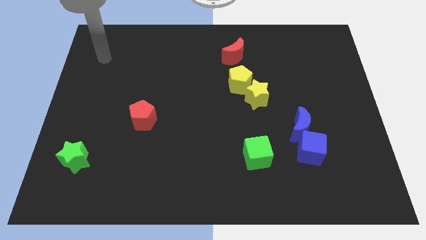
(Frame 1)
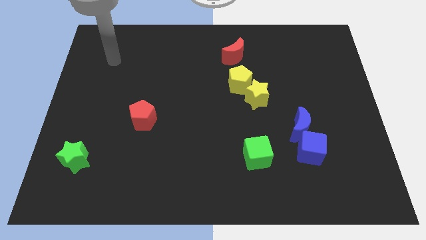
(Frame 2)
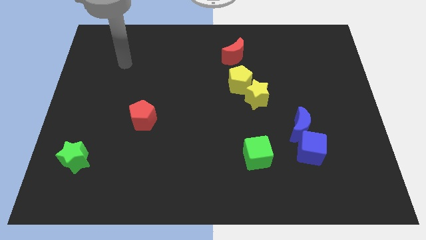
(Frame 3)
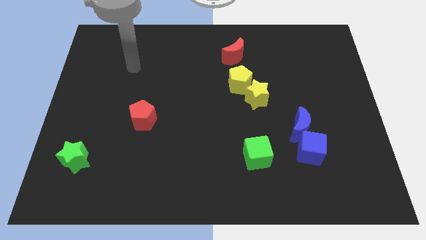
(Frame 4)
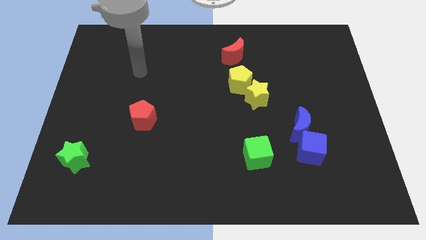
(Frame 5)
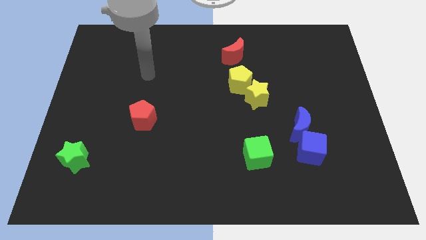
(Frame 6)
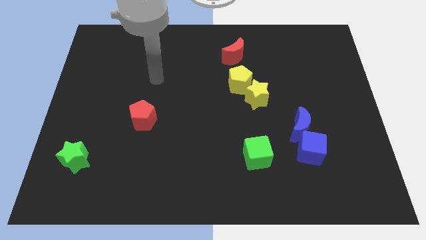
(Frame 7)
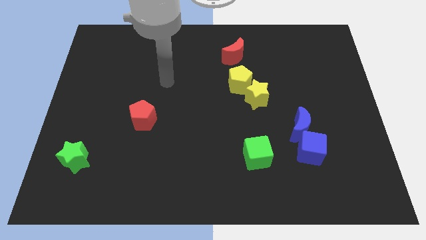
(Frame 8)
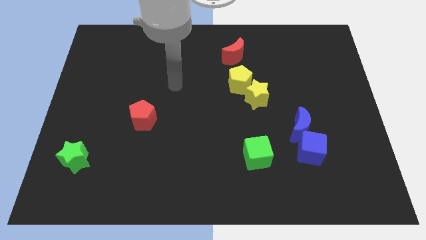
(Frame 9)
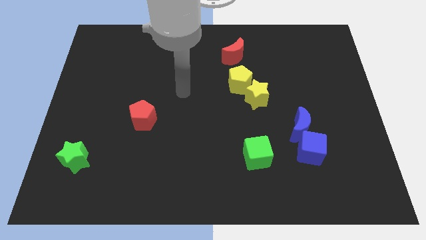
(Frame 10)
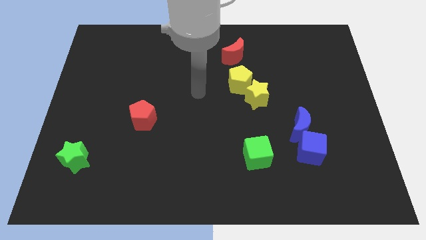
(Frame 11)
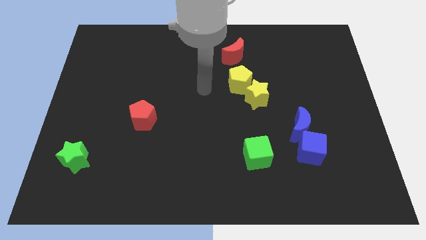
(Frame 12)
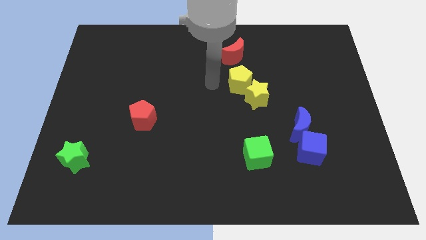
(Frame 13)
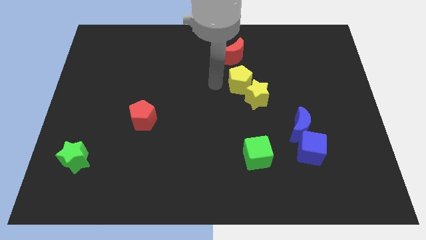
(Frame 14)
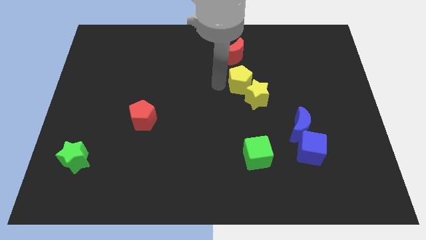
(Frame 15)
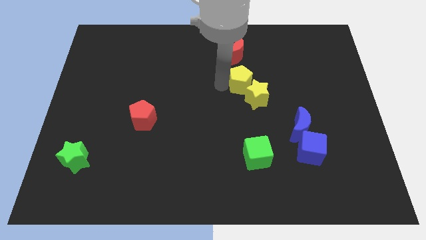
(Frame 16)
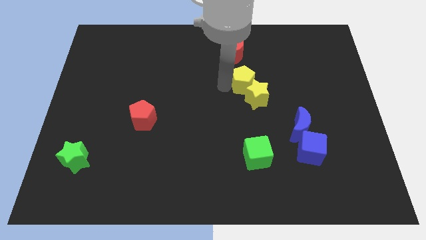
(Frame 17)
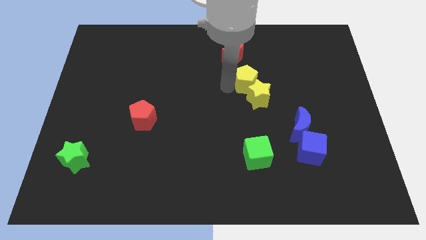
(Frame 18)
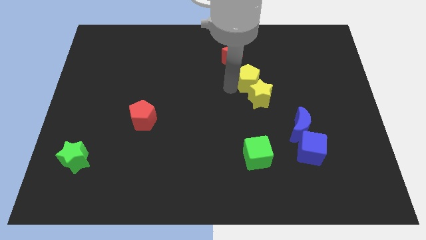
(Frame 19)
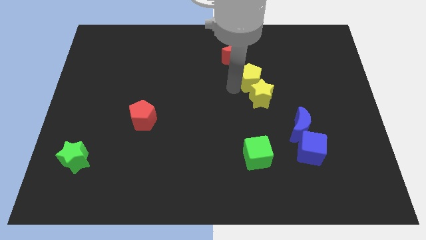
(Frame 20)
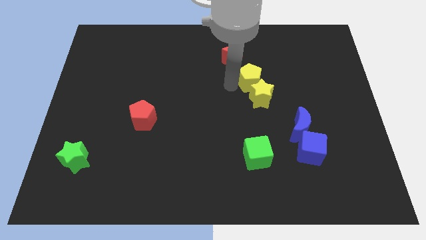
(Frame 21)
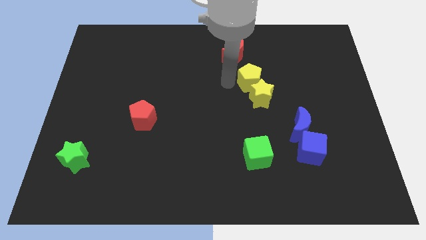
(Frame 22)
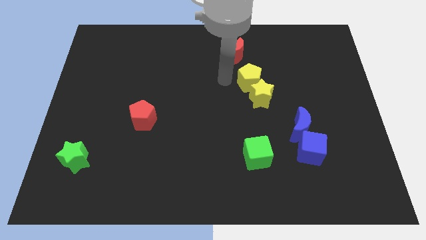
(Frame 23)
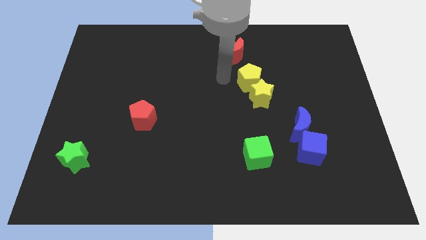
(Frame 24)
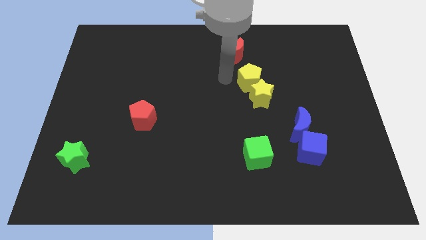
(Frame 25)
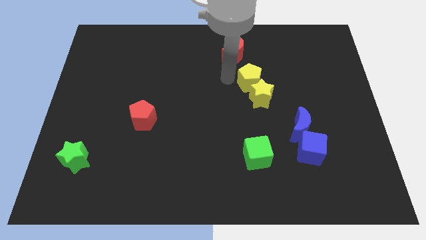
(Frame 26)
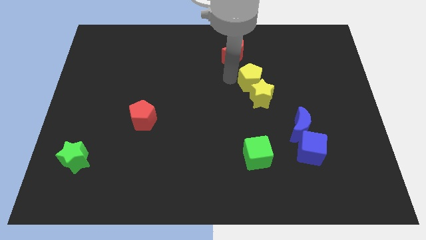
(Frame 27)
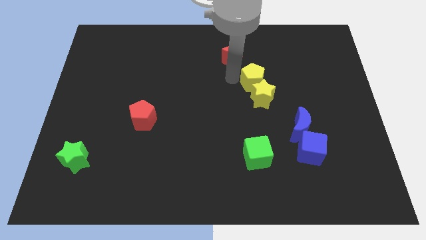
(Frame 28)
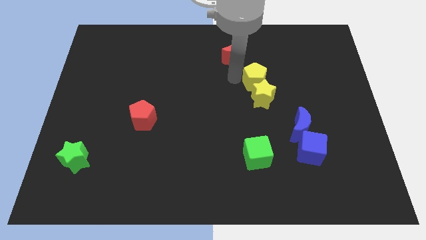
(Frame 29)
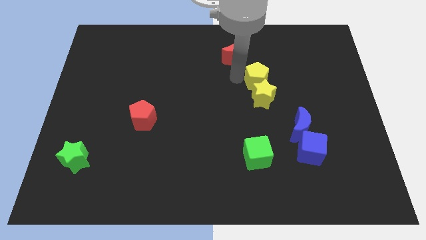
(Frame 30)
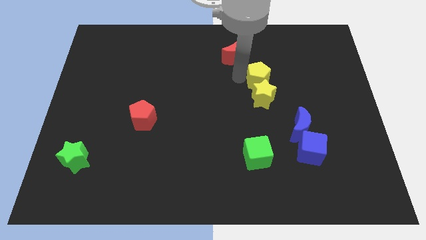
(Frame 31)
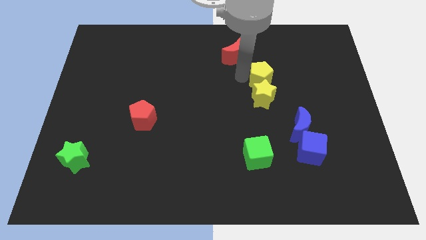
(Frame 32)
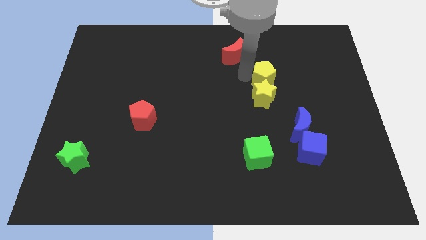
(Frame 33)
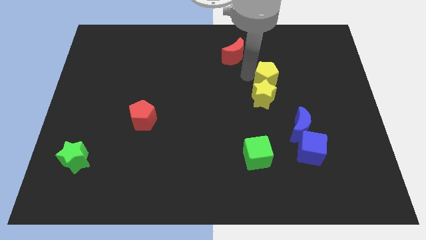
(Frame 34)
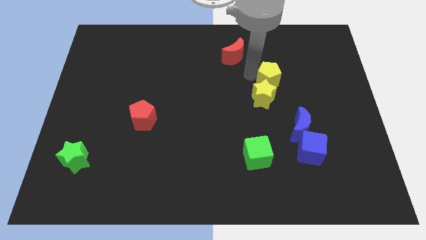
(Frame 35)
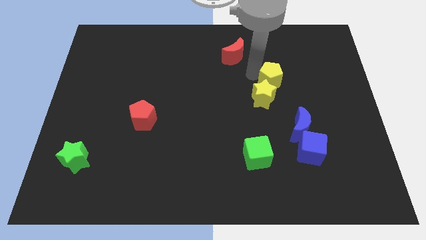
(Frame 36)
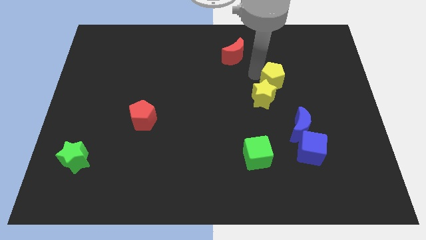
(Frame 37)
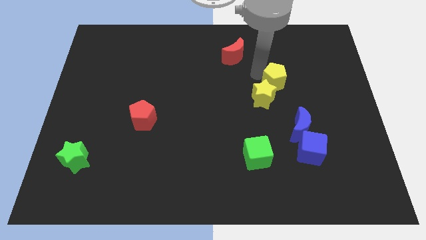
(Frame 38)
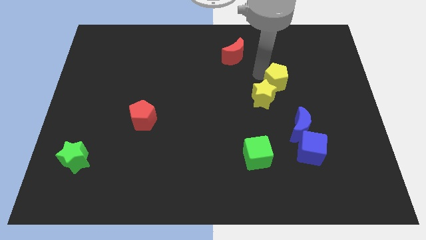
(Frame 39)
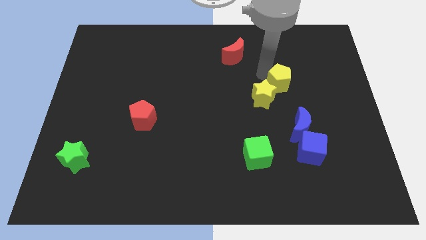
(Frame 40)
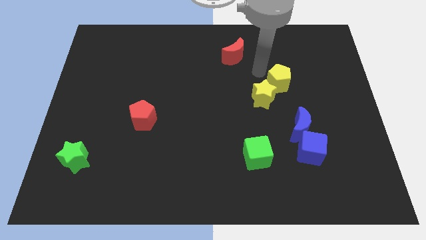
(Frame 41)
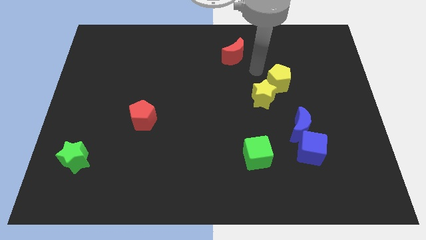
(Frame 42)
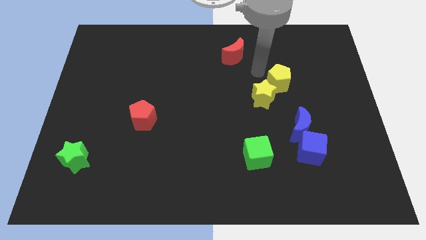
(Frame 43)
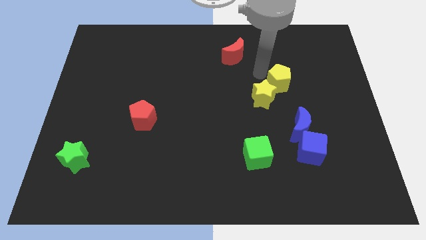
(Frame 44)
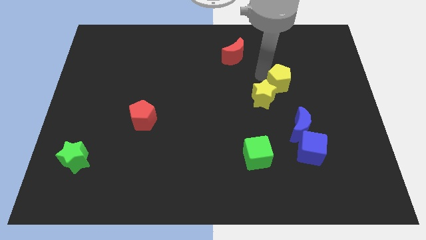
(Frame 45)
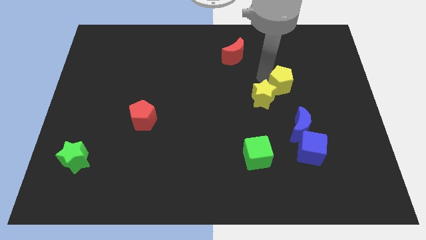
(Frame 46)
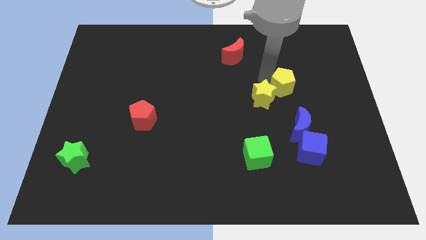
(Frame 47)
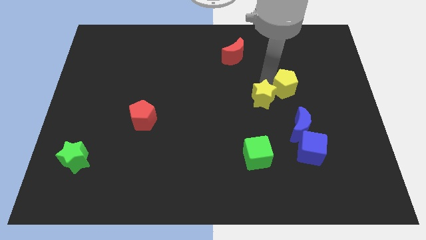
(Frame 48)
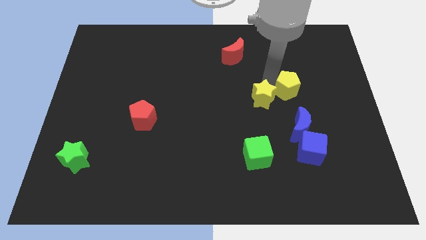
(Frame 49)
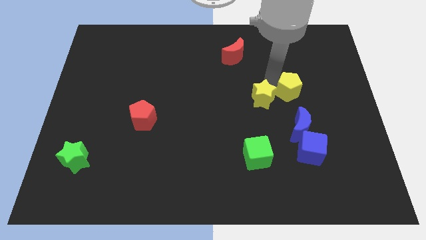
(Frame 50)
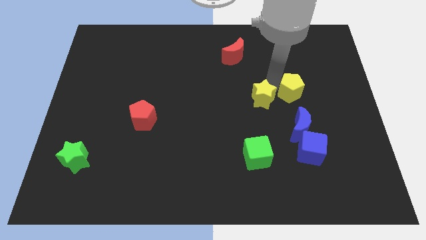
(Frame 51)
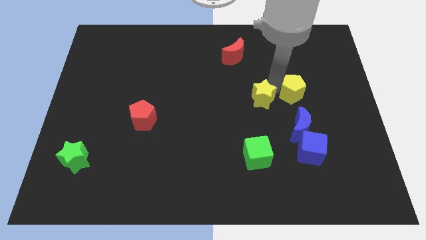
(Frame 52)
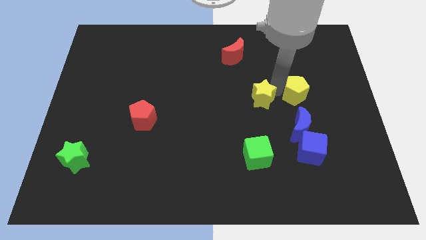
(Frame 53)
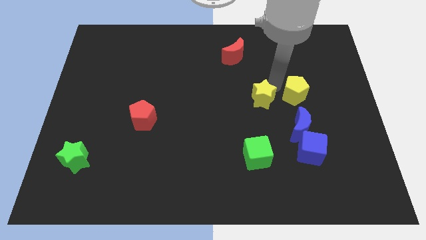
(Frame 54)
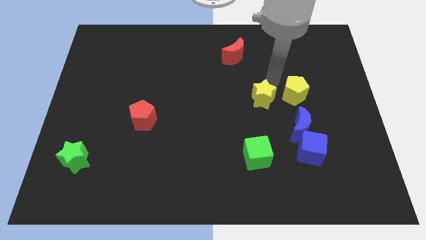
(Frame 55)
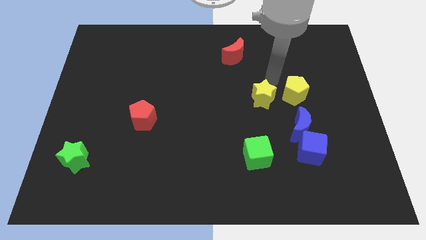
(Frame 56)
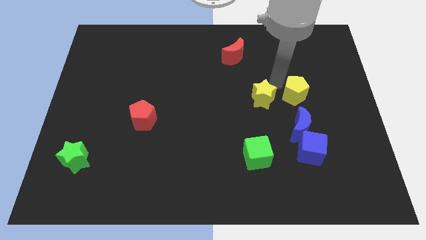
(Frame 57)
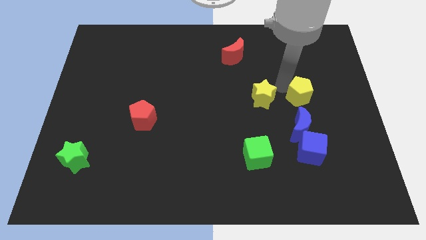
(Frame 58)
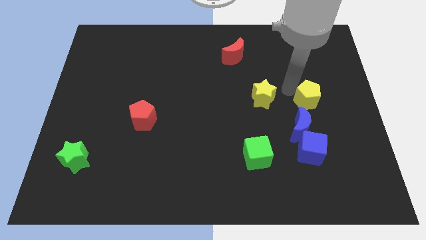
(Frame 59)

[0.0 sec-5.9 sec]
slide the yellow pentagon diagonally up and to the right of the blue moon

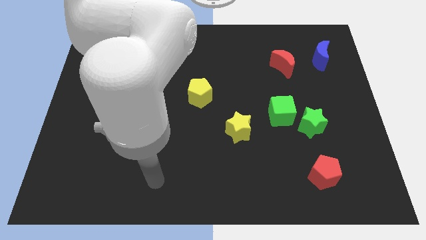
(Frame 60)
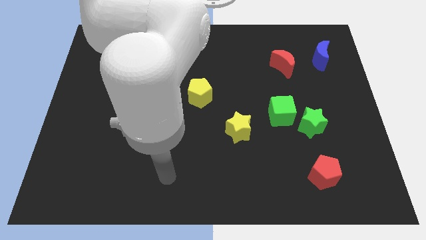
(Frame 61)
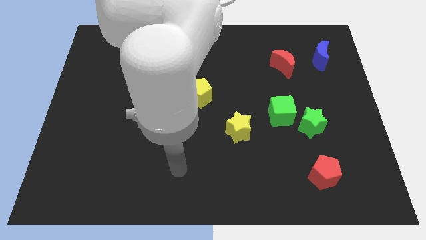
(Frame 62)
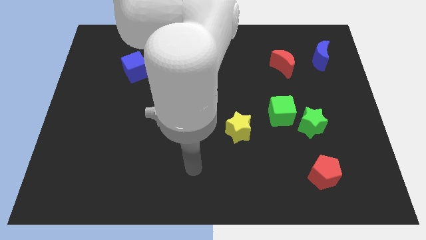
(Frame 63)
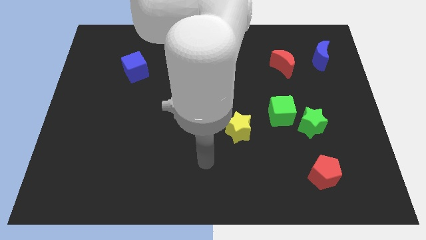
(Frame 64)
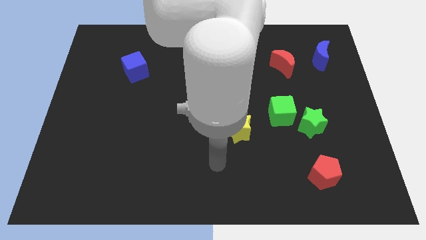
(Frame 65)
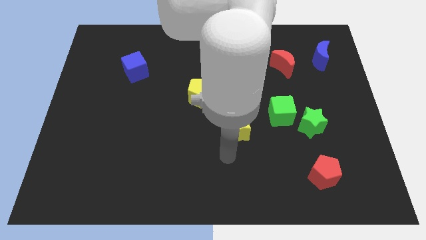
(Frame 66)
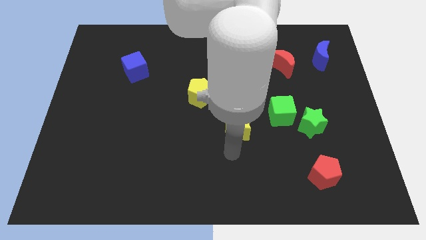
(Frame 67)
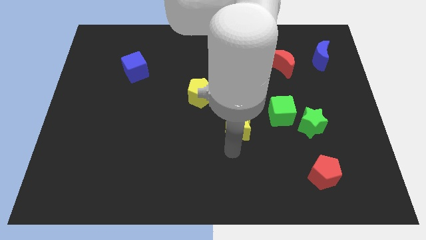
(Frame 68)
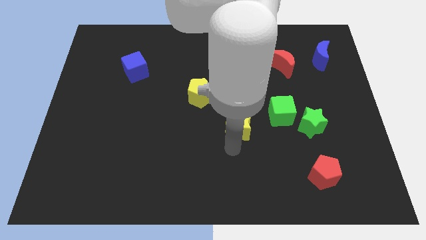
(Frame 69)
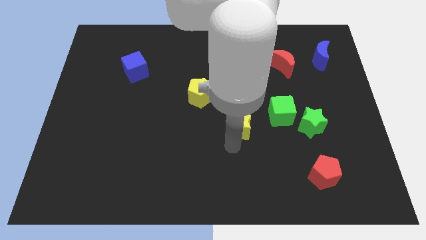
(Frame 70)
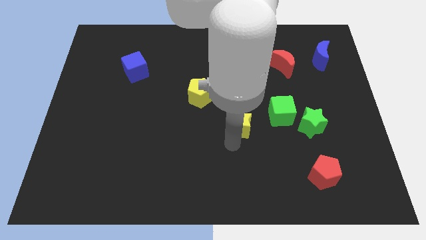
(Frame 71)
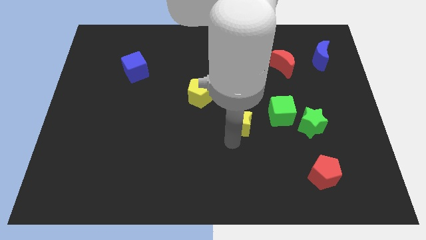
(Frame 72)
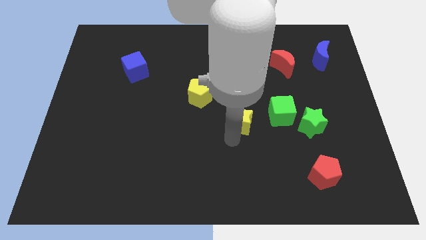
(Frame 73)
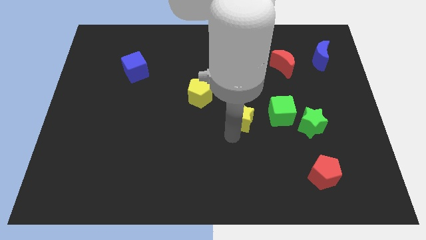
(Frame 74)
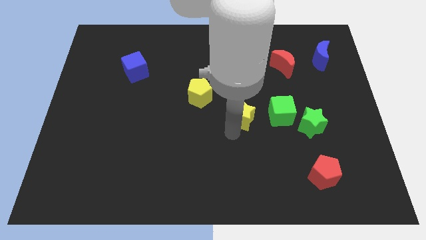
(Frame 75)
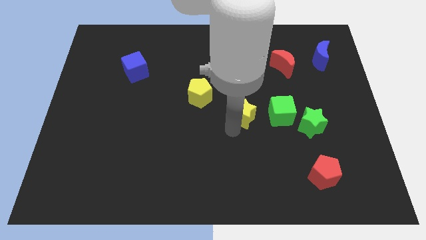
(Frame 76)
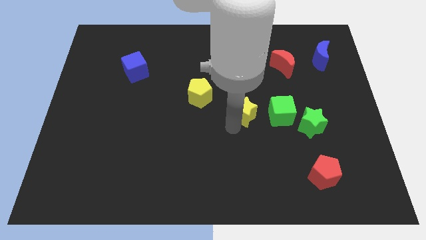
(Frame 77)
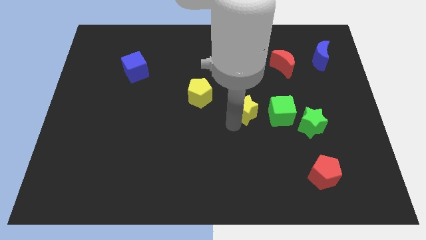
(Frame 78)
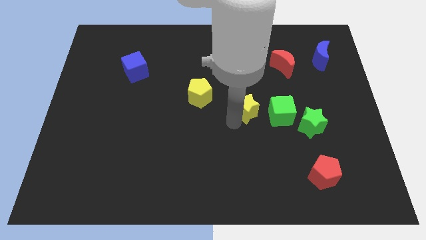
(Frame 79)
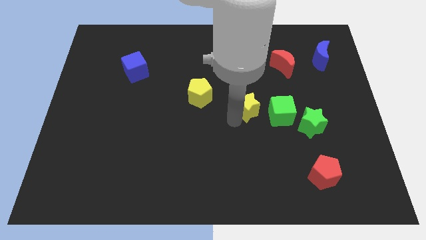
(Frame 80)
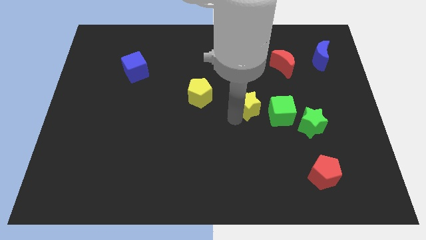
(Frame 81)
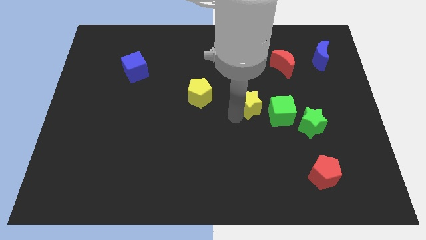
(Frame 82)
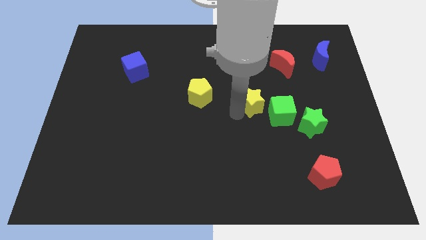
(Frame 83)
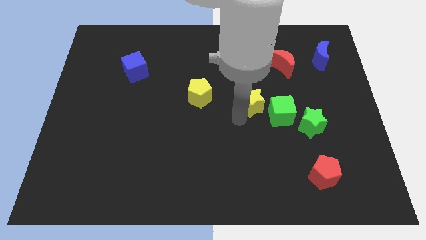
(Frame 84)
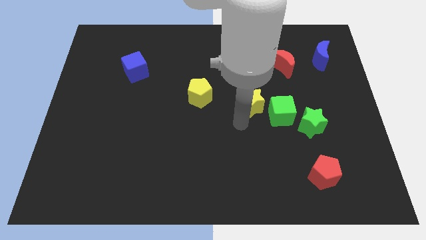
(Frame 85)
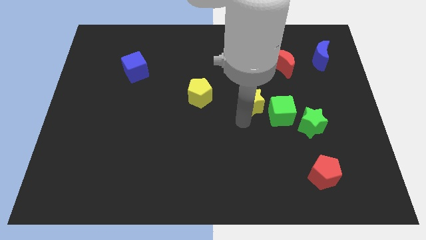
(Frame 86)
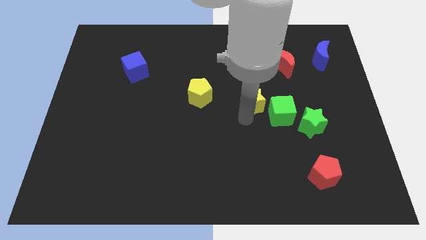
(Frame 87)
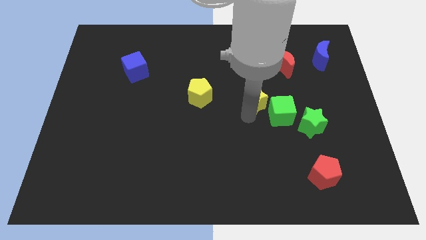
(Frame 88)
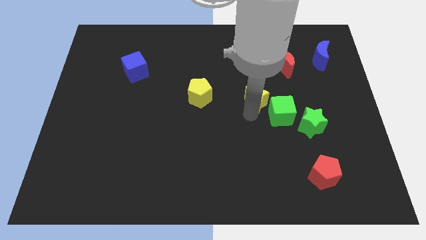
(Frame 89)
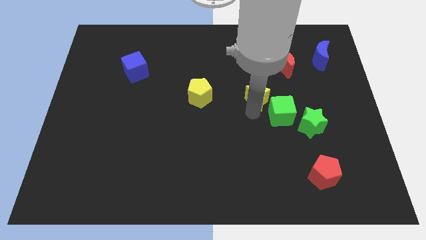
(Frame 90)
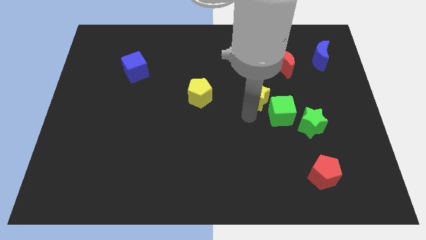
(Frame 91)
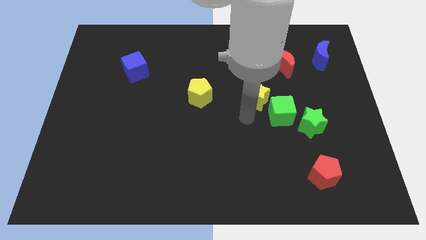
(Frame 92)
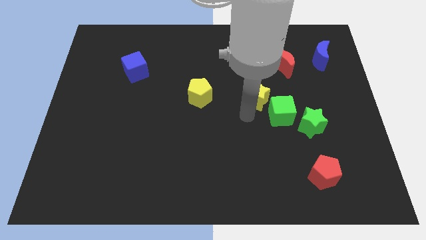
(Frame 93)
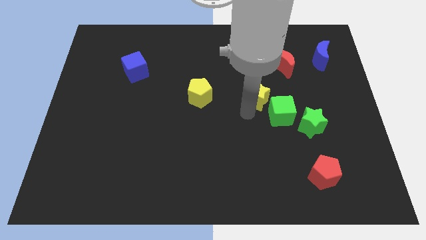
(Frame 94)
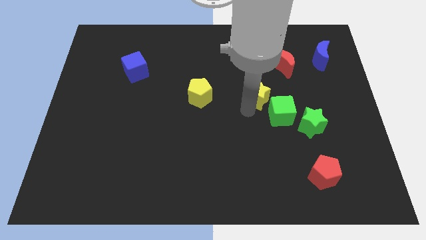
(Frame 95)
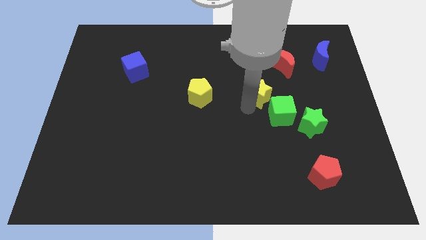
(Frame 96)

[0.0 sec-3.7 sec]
slide the yellow star to the bottom left side of the red moon
